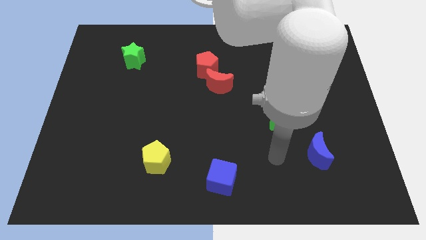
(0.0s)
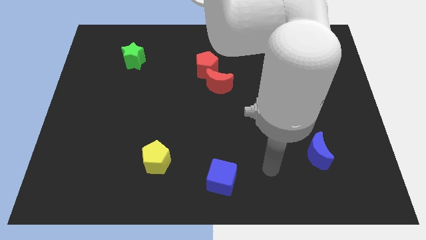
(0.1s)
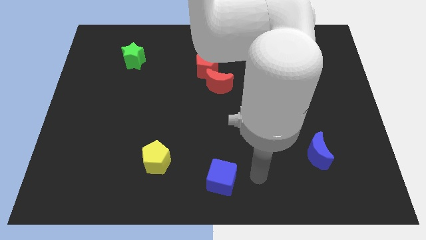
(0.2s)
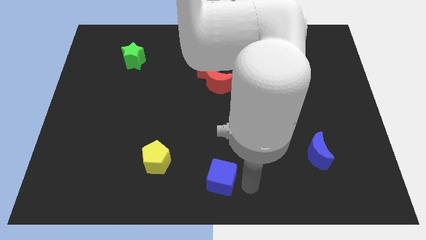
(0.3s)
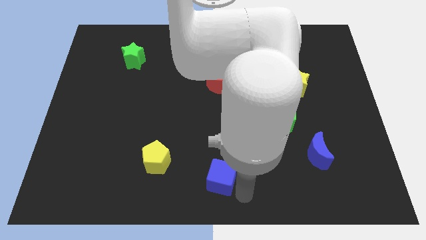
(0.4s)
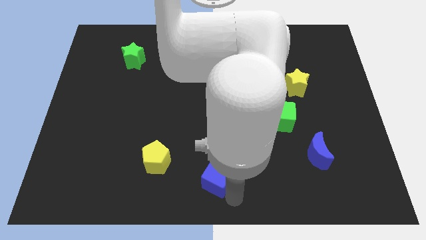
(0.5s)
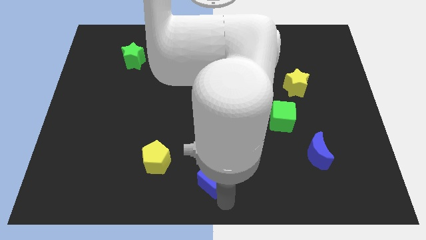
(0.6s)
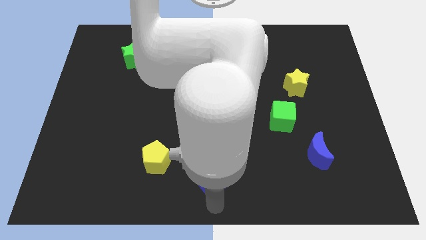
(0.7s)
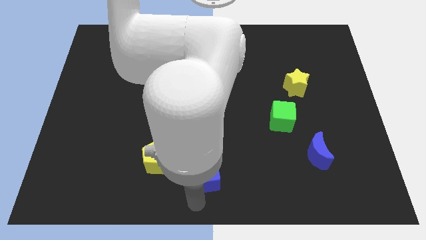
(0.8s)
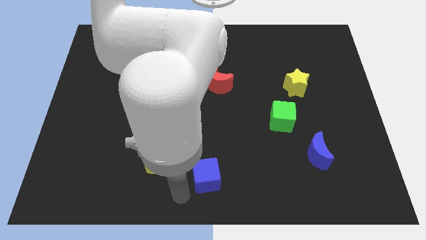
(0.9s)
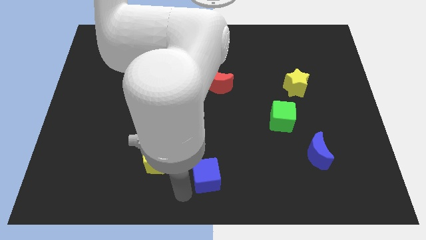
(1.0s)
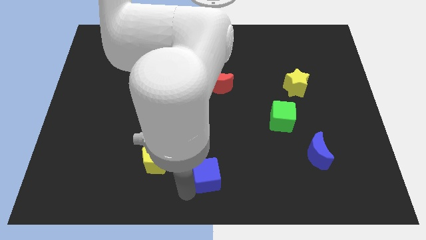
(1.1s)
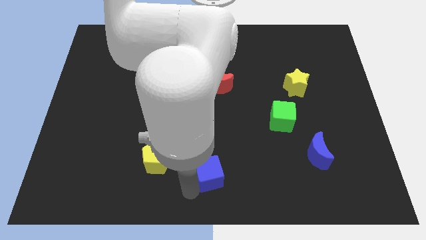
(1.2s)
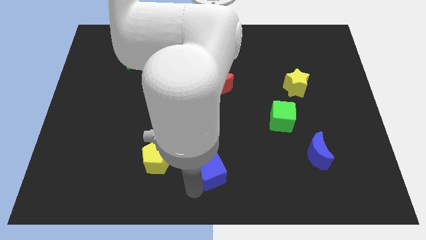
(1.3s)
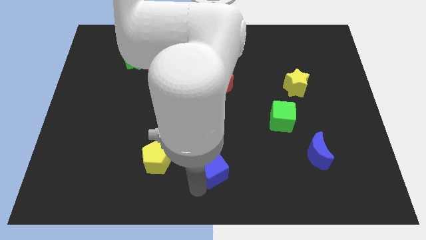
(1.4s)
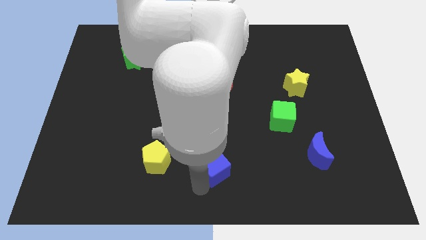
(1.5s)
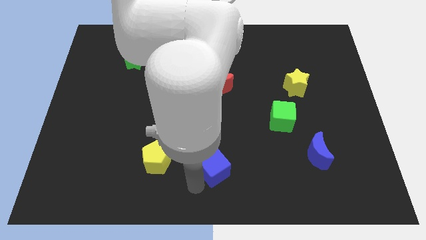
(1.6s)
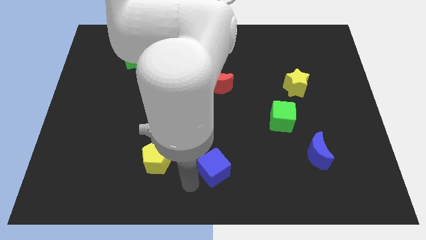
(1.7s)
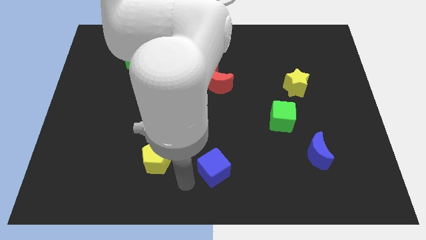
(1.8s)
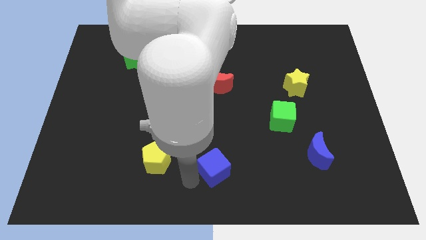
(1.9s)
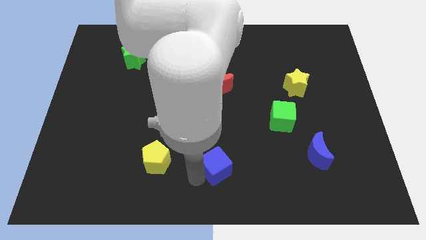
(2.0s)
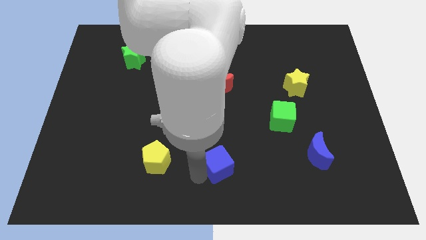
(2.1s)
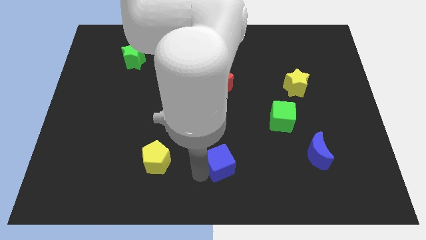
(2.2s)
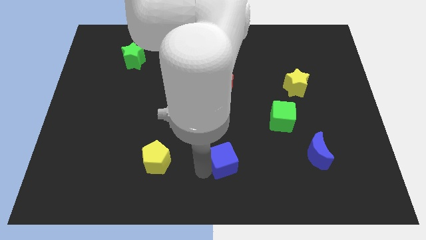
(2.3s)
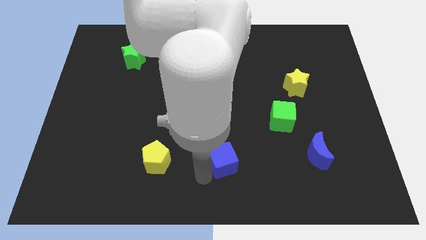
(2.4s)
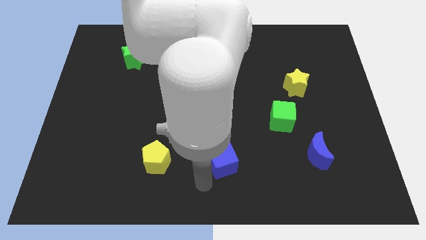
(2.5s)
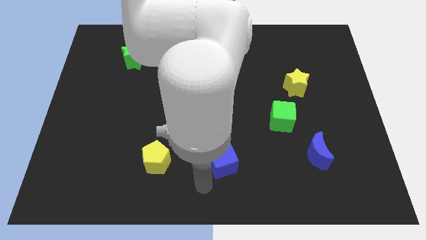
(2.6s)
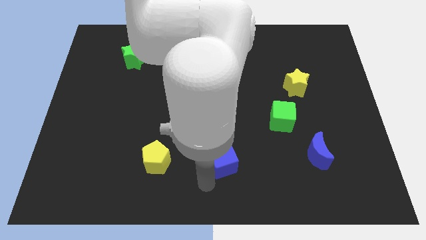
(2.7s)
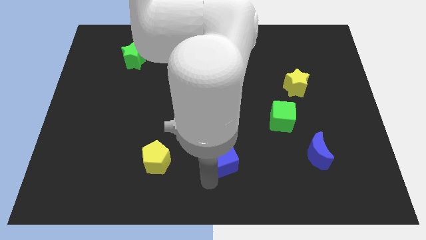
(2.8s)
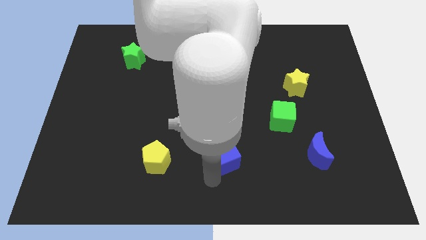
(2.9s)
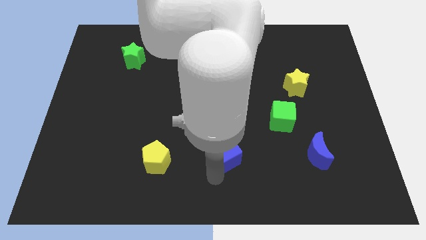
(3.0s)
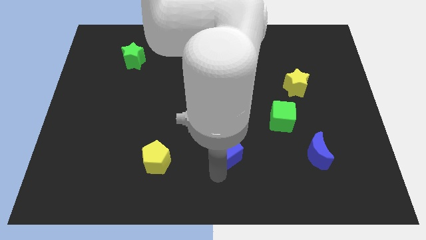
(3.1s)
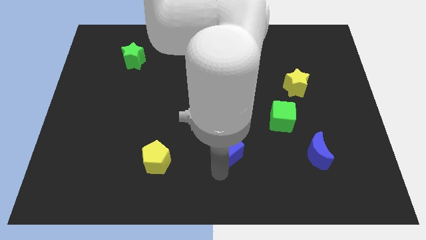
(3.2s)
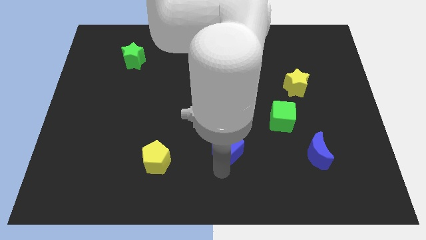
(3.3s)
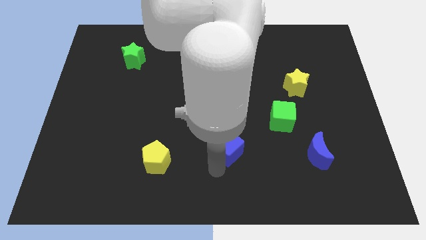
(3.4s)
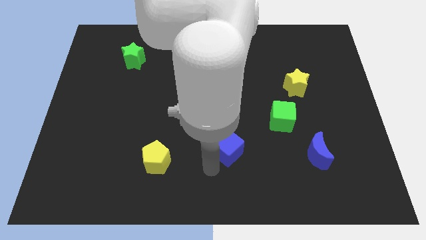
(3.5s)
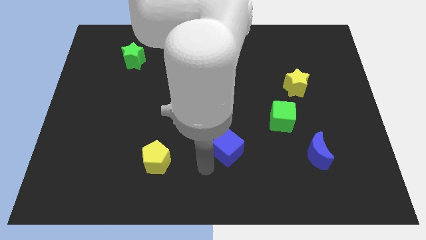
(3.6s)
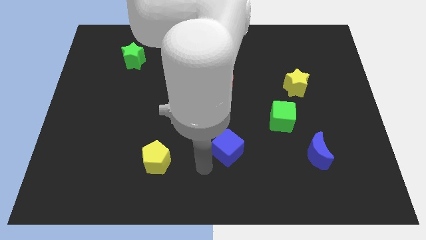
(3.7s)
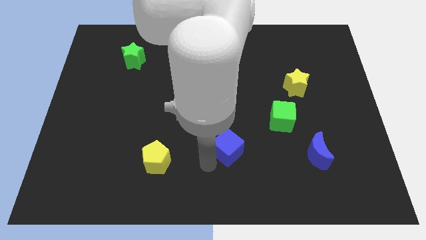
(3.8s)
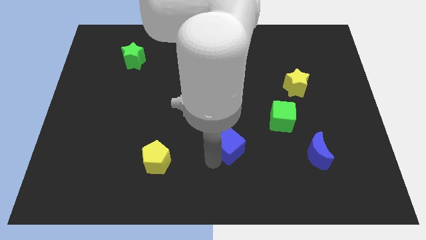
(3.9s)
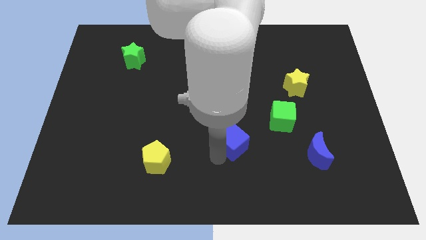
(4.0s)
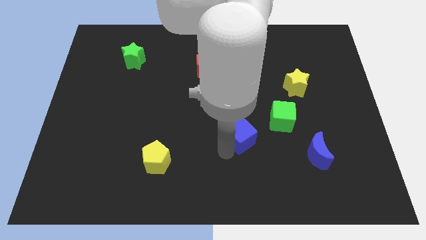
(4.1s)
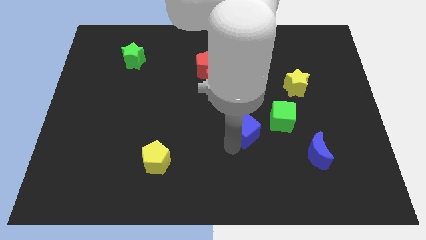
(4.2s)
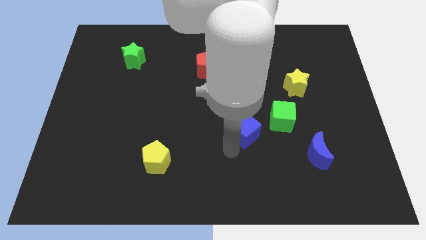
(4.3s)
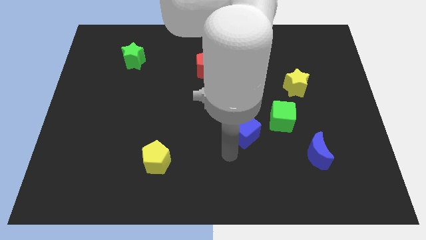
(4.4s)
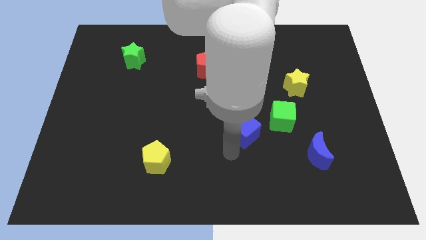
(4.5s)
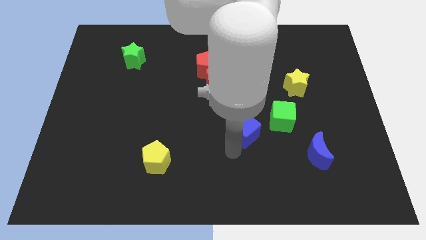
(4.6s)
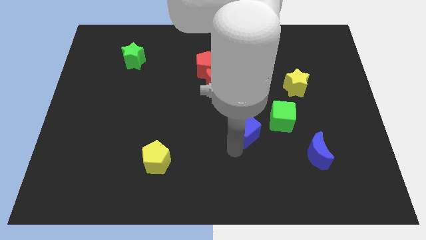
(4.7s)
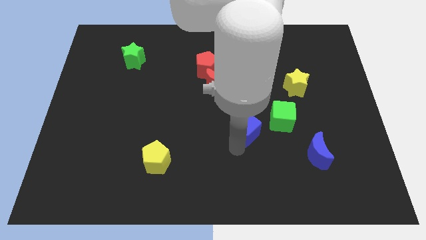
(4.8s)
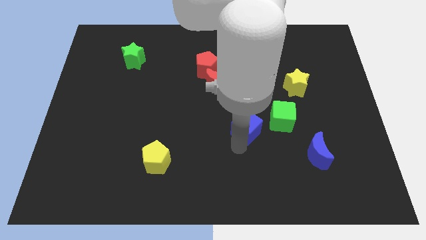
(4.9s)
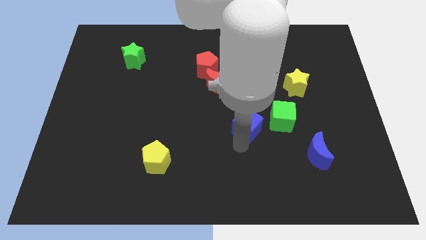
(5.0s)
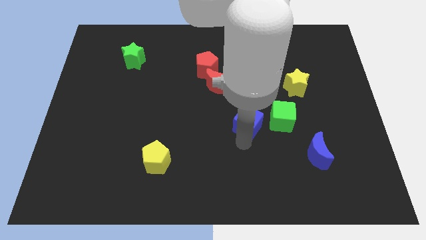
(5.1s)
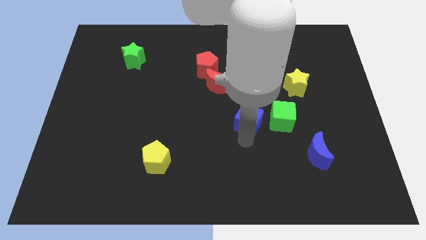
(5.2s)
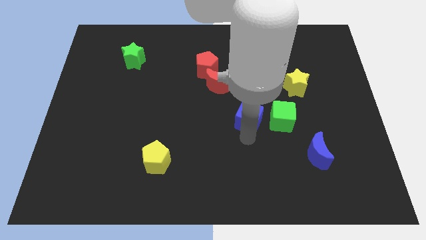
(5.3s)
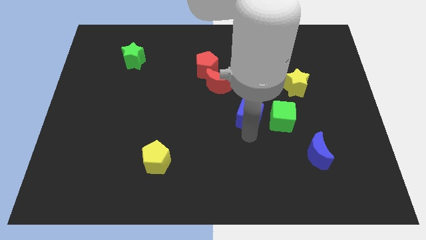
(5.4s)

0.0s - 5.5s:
put the blue cube to the top left side of the green cube

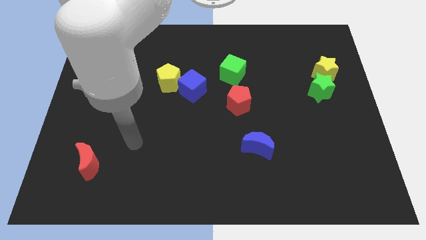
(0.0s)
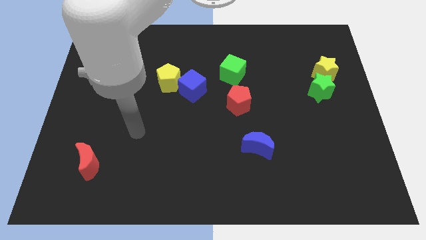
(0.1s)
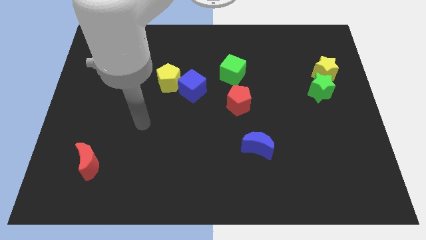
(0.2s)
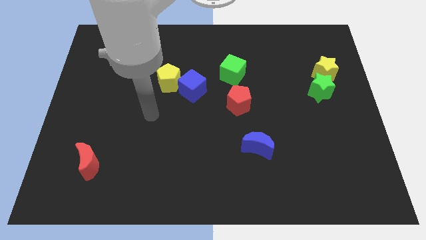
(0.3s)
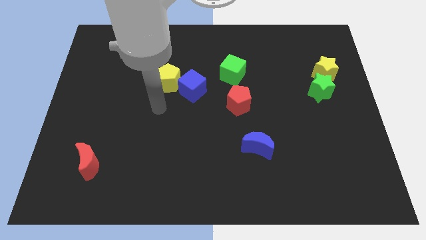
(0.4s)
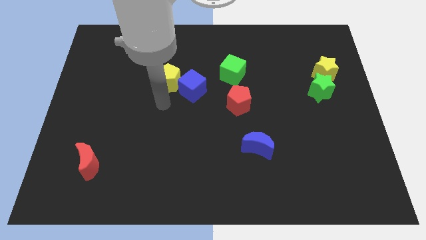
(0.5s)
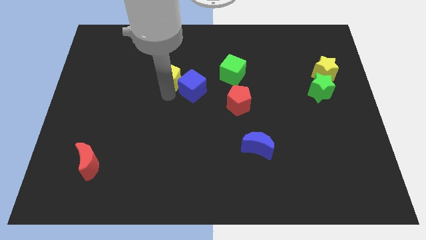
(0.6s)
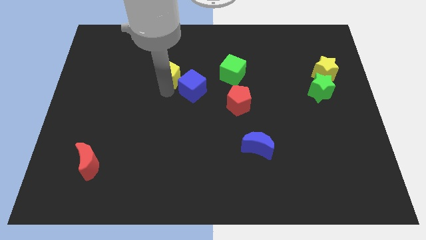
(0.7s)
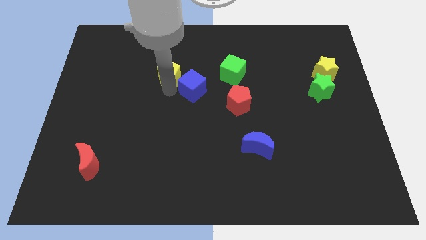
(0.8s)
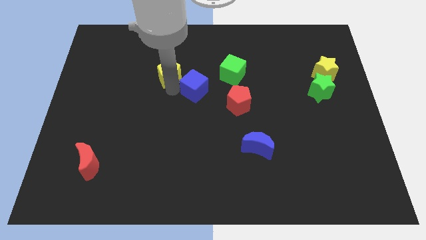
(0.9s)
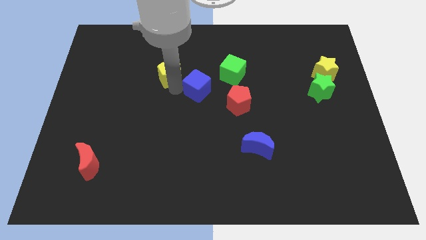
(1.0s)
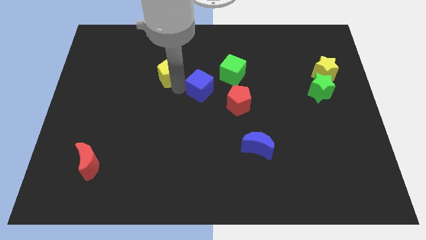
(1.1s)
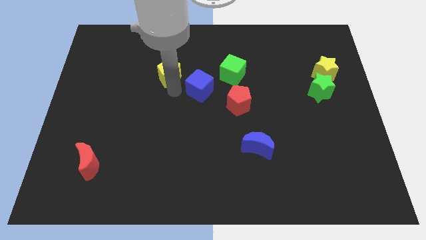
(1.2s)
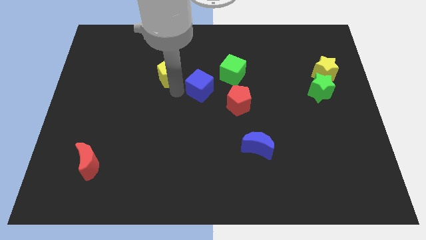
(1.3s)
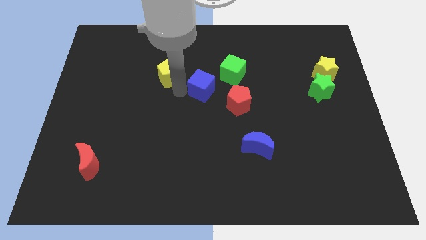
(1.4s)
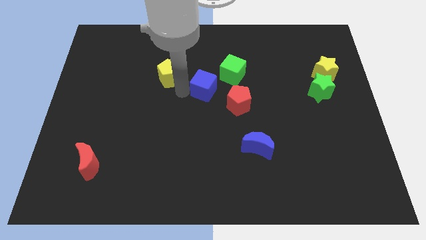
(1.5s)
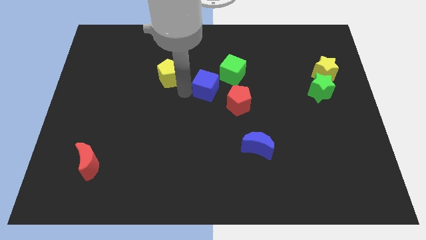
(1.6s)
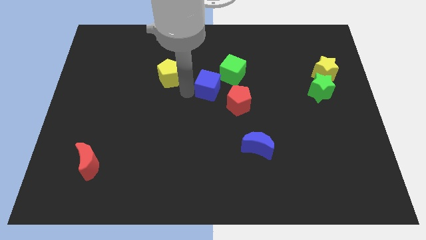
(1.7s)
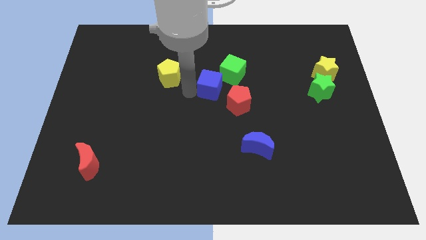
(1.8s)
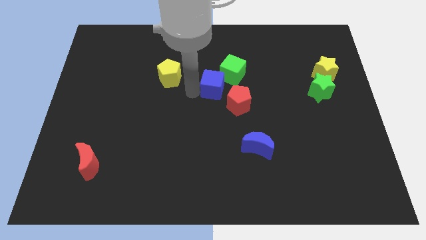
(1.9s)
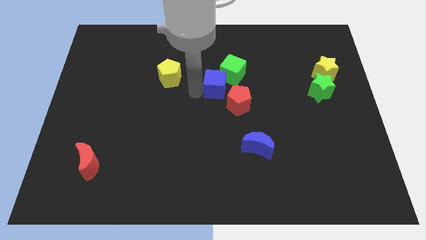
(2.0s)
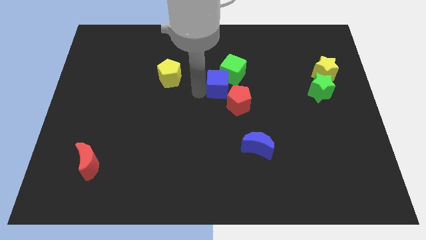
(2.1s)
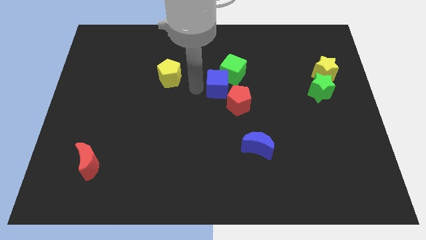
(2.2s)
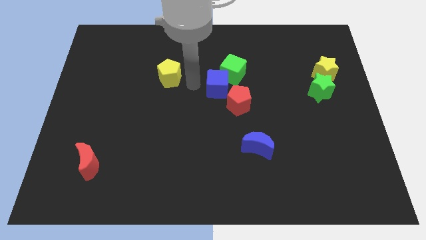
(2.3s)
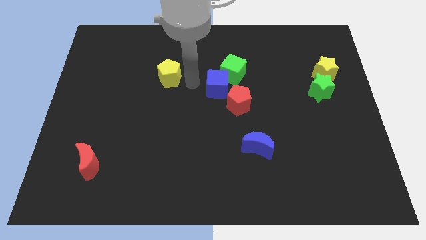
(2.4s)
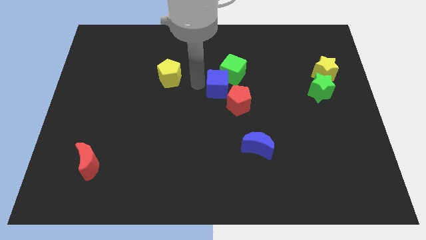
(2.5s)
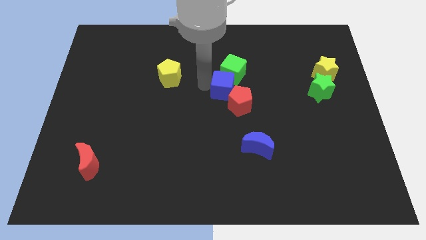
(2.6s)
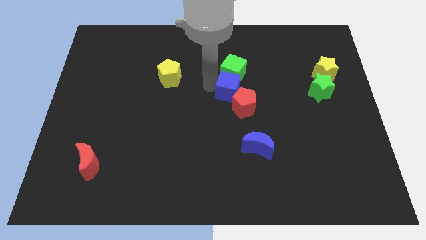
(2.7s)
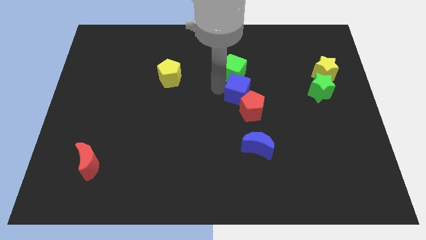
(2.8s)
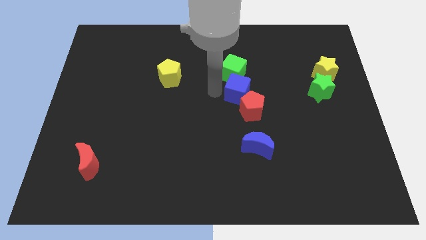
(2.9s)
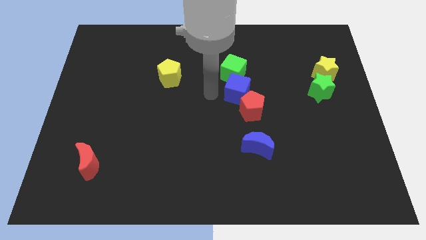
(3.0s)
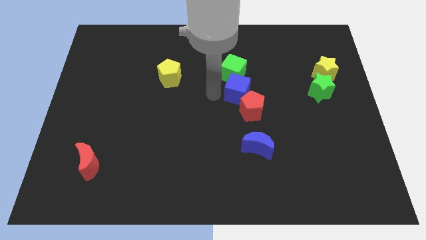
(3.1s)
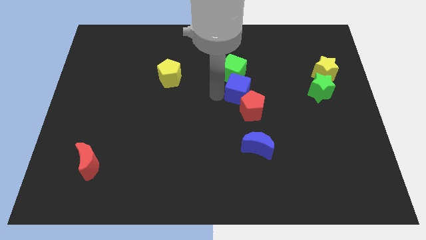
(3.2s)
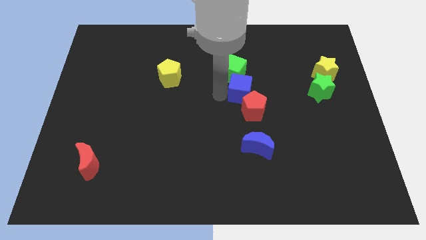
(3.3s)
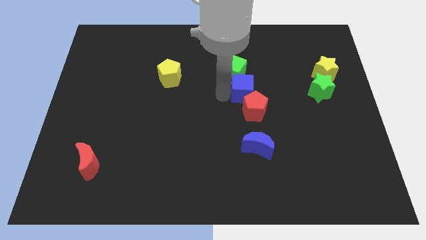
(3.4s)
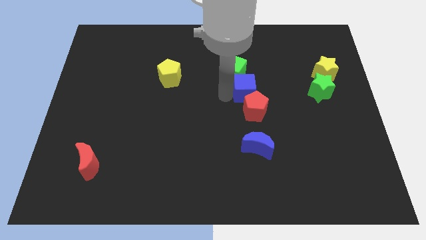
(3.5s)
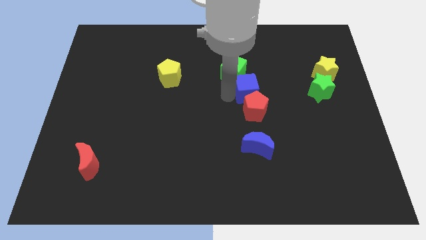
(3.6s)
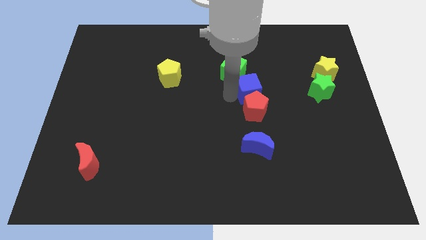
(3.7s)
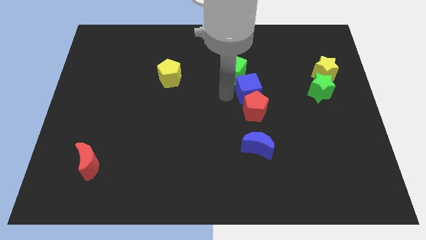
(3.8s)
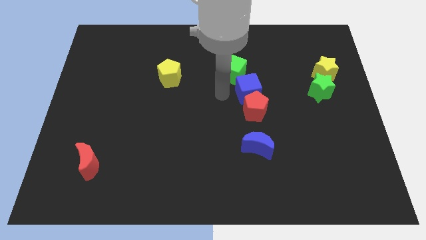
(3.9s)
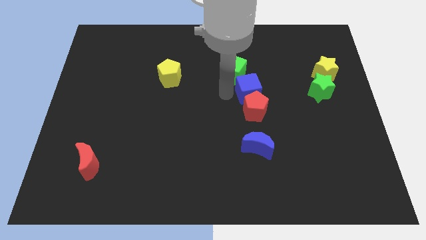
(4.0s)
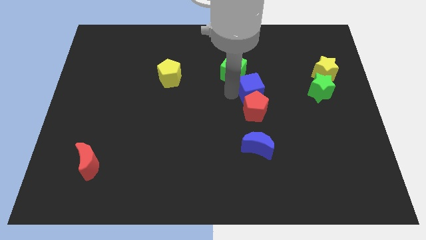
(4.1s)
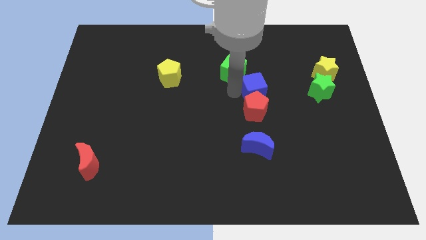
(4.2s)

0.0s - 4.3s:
push the blue cube to the left side of the green star
